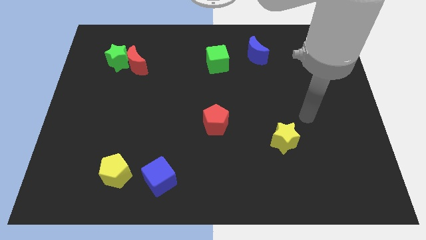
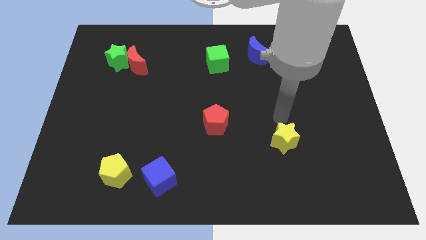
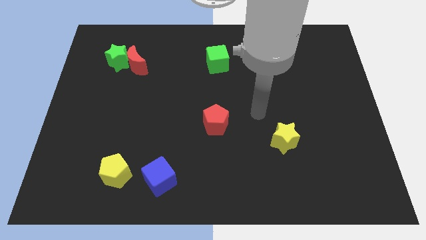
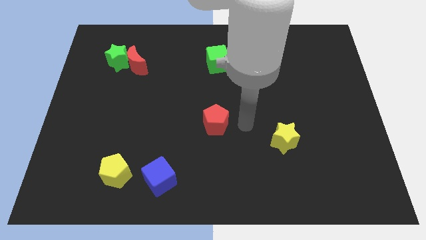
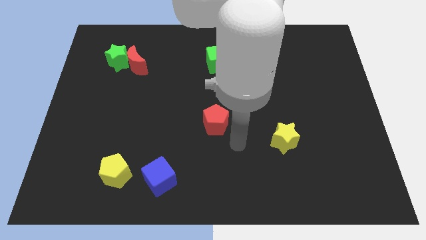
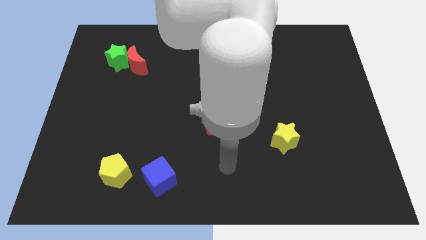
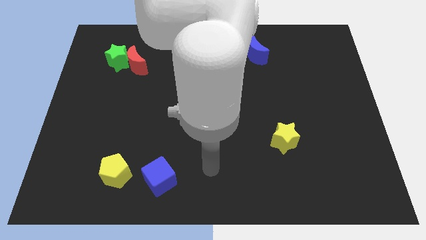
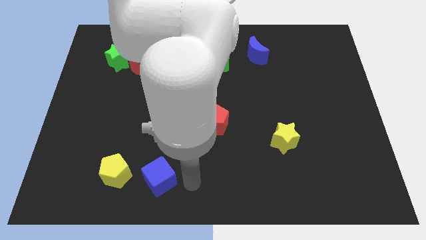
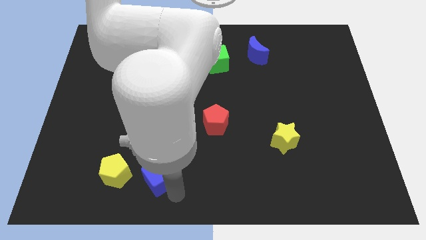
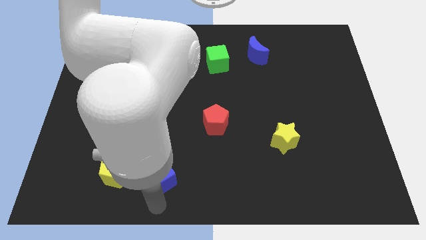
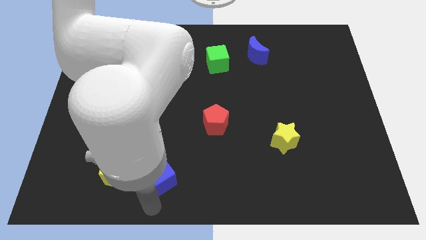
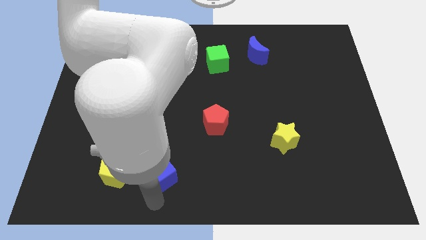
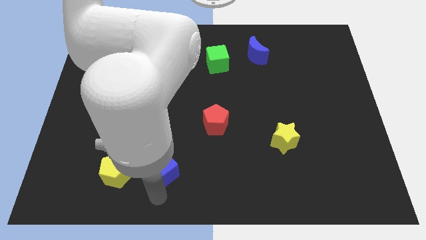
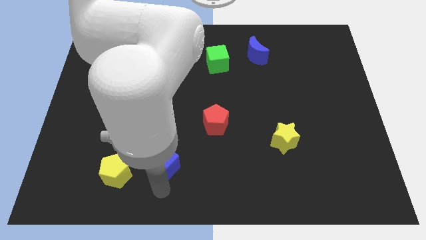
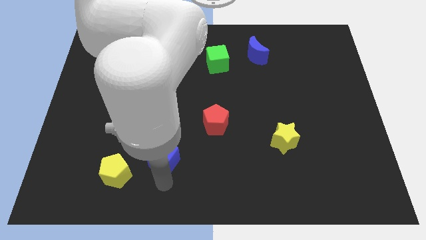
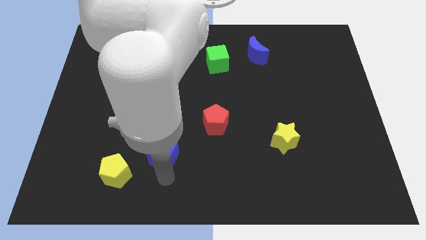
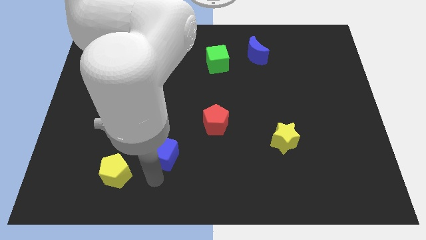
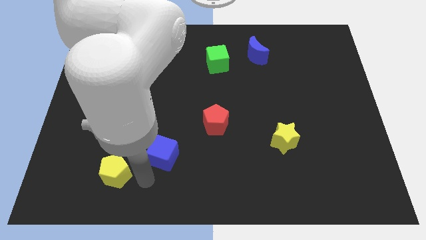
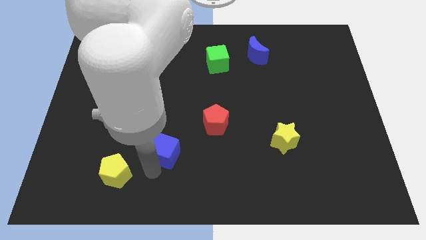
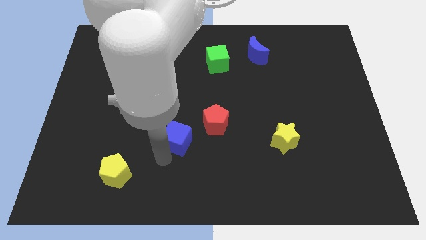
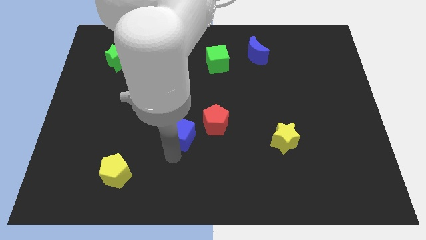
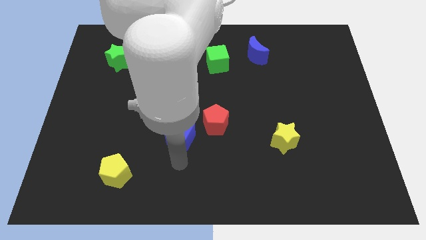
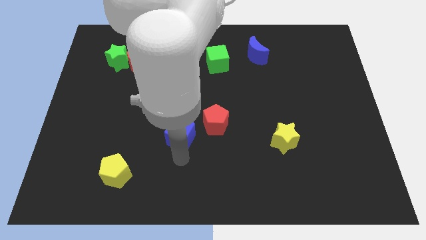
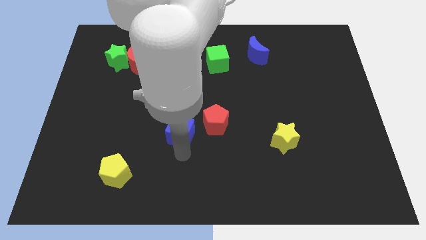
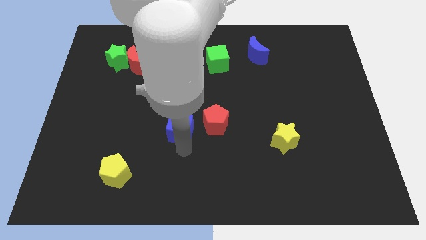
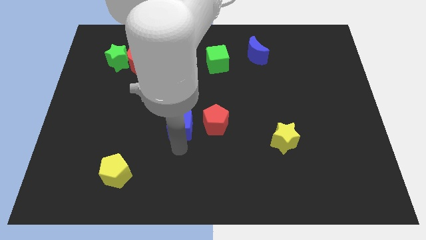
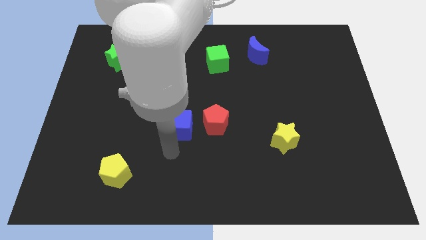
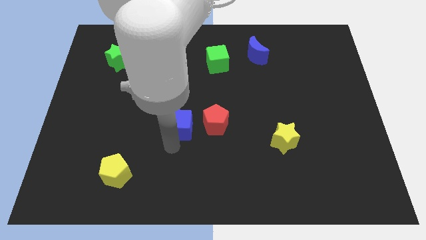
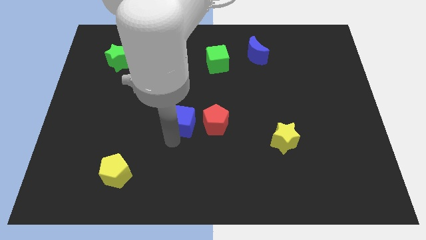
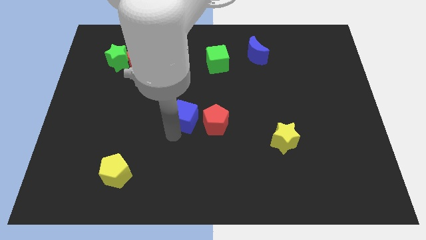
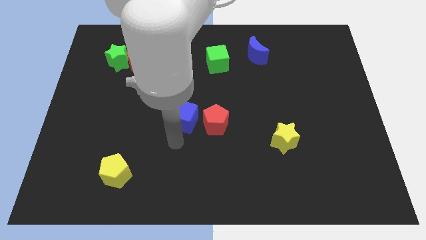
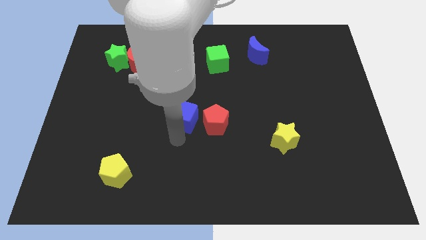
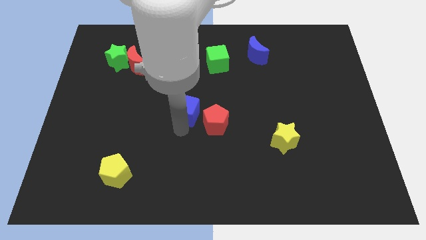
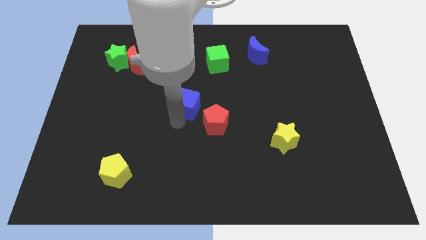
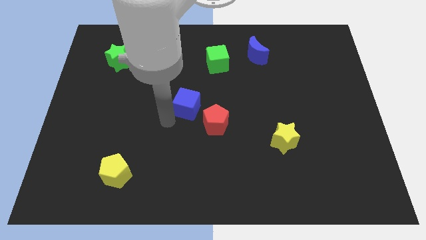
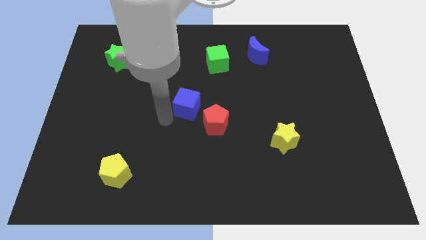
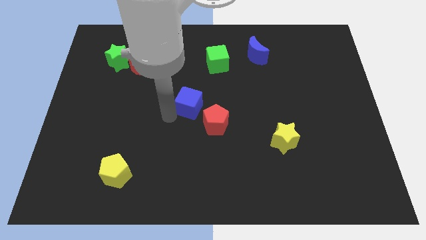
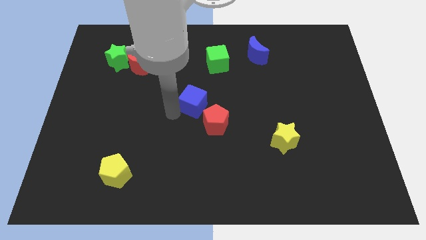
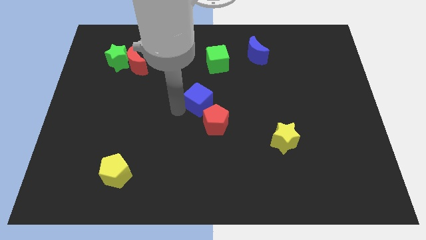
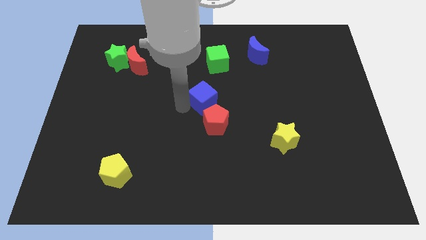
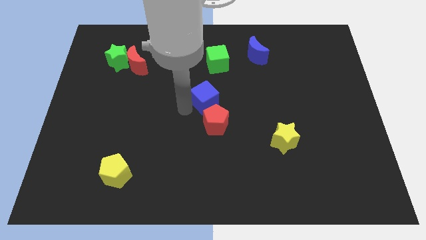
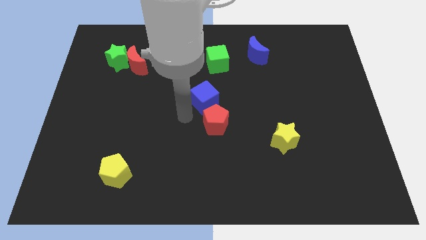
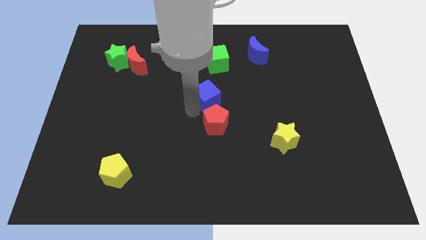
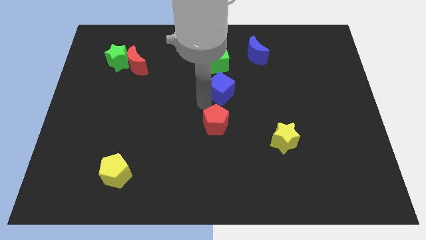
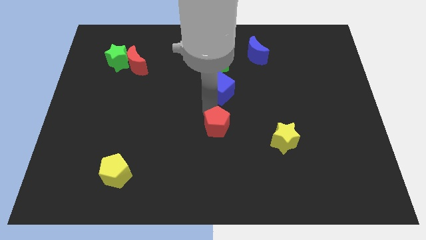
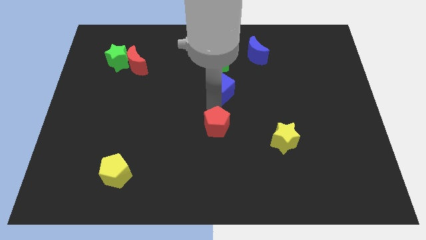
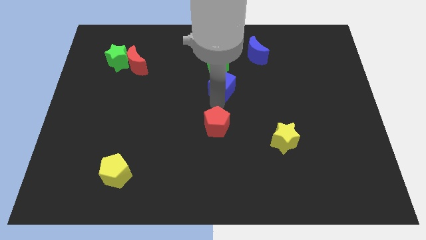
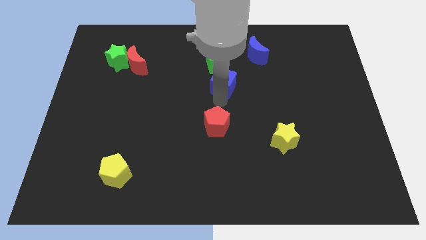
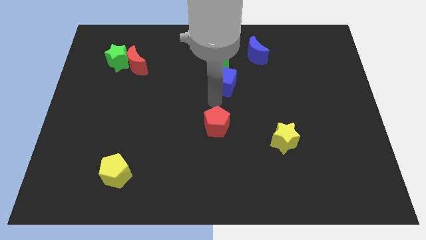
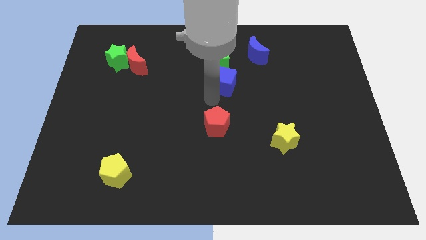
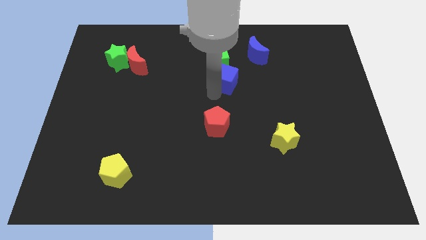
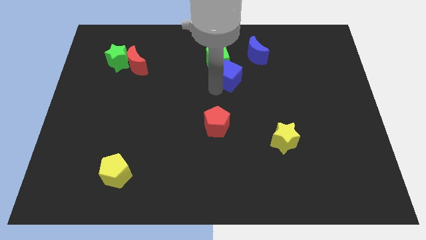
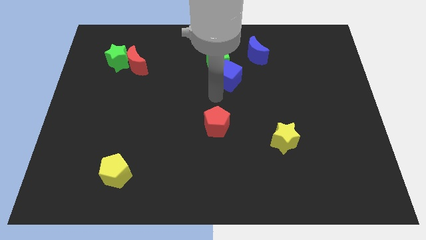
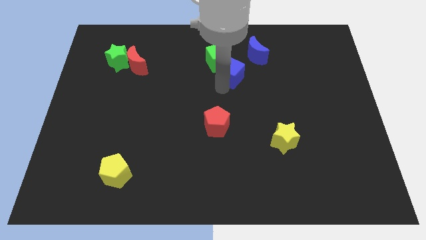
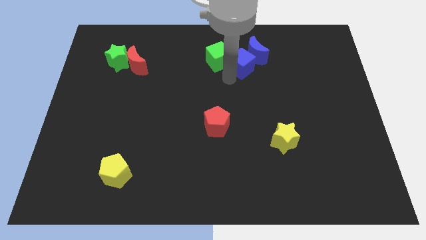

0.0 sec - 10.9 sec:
move the blue cube to the blue moon

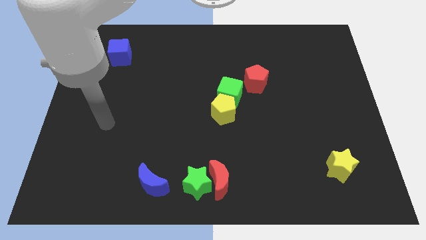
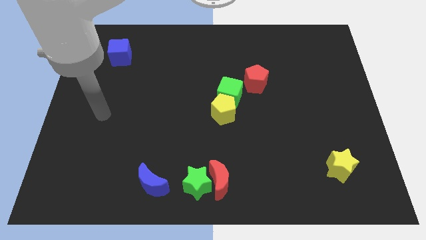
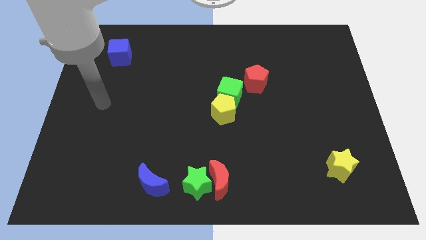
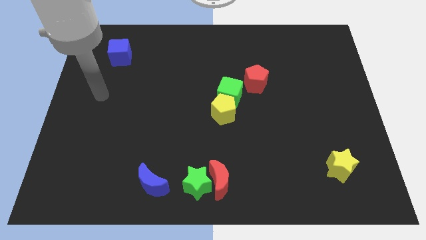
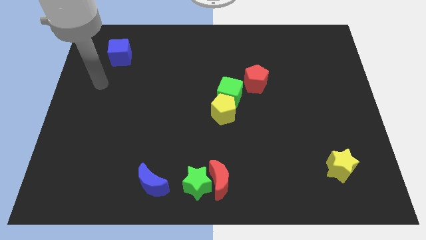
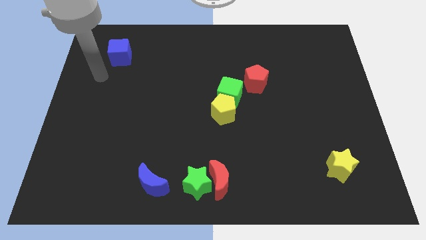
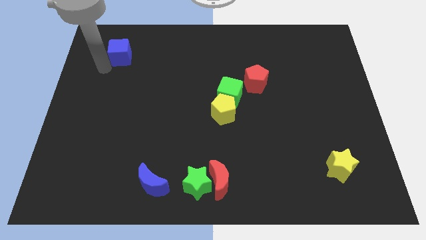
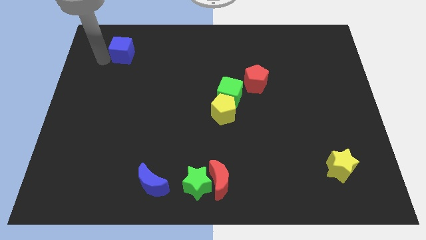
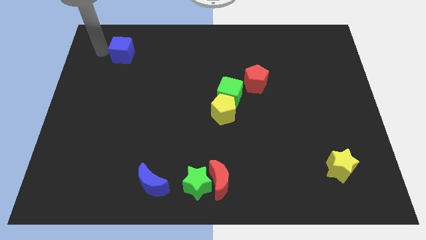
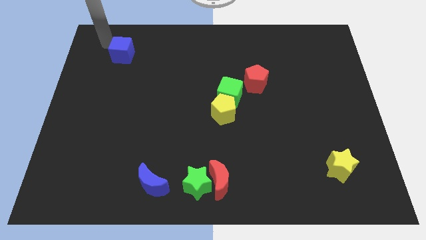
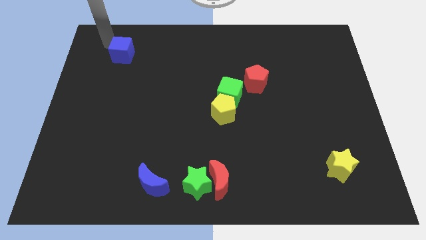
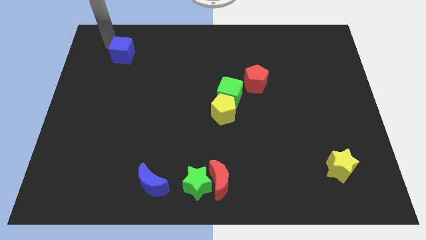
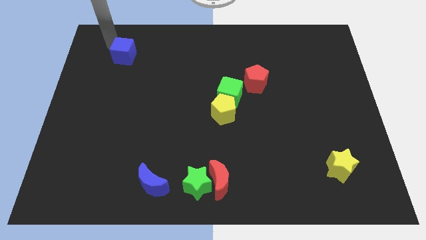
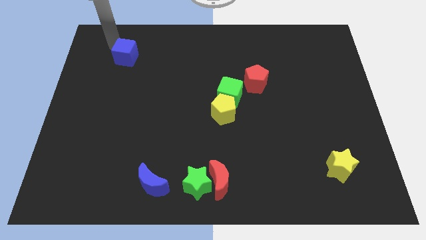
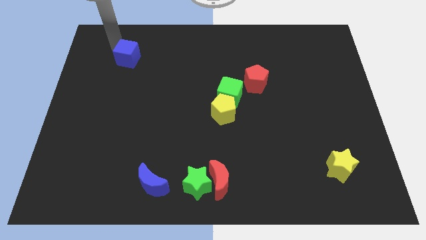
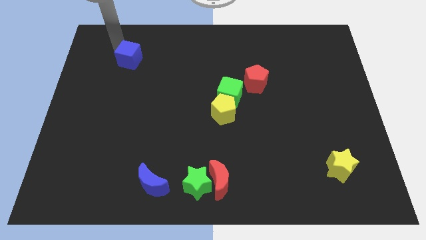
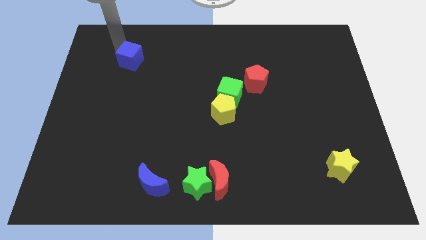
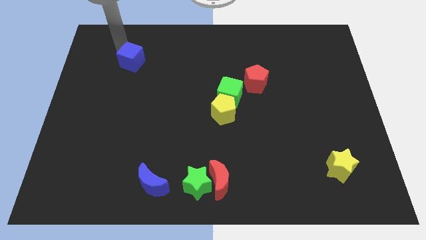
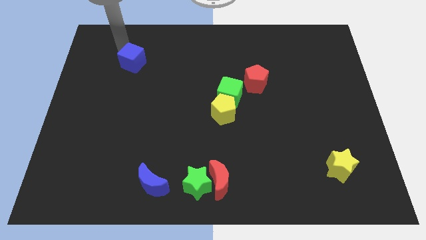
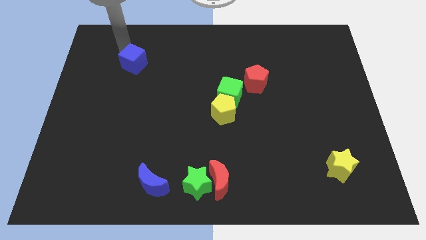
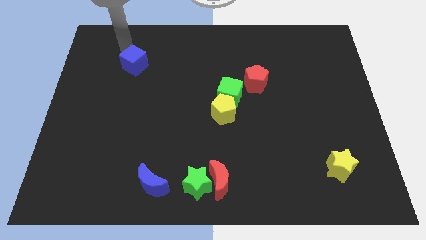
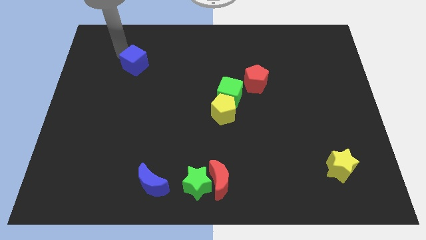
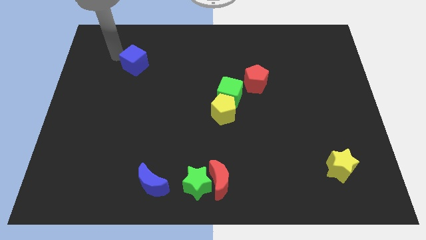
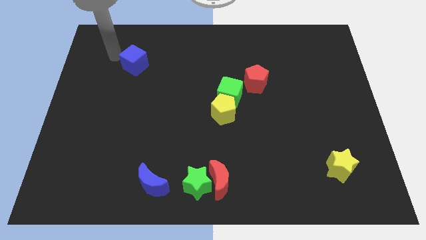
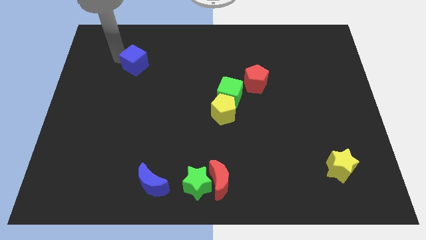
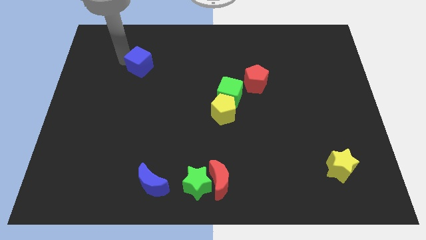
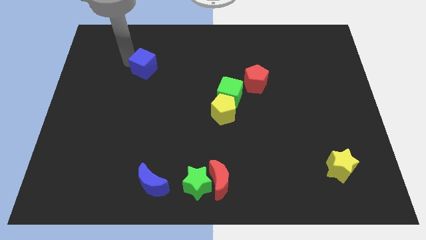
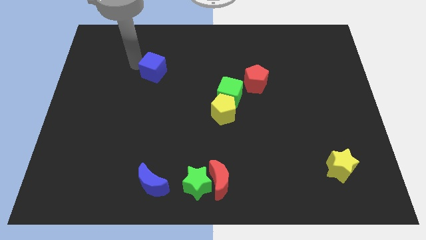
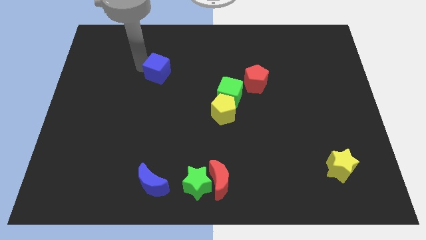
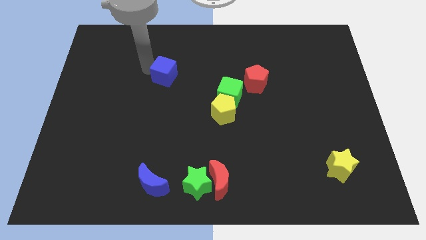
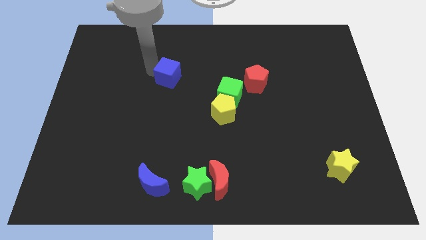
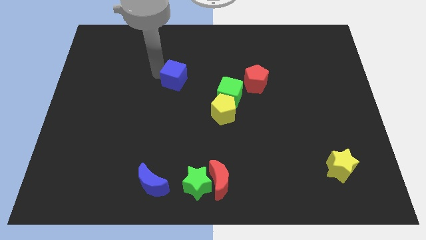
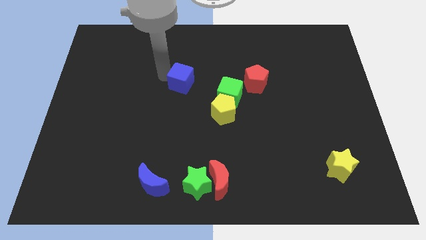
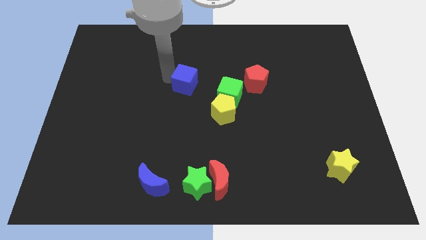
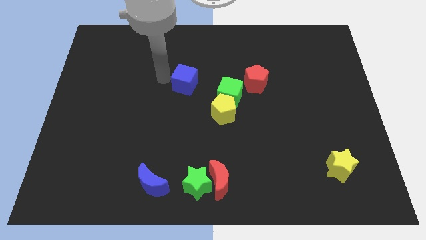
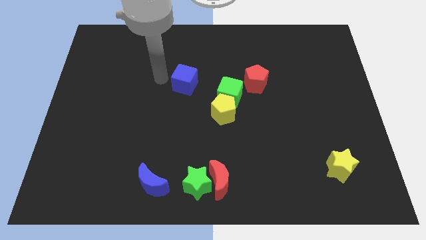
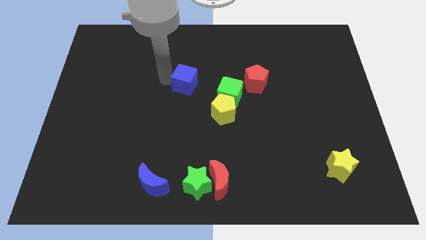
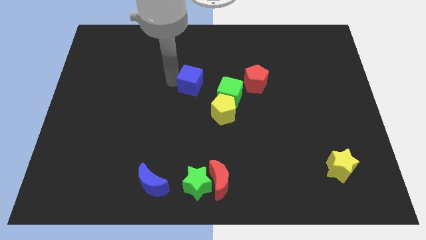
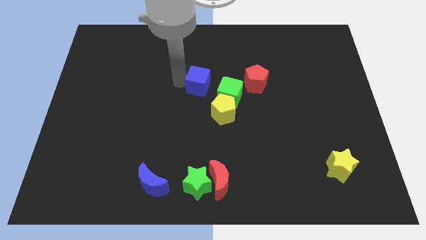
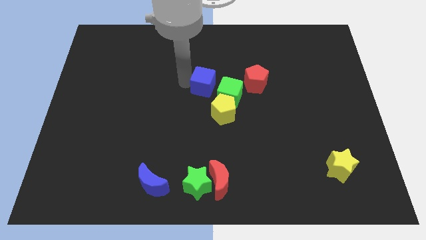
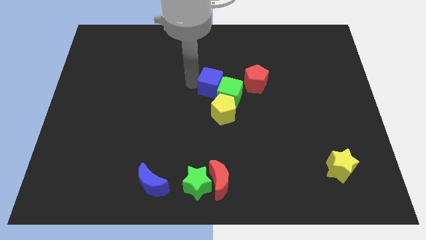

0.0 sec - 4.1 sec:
move the blue cube to the green cube
